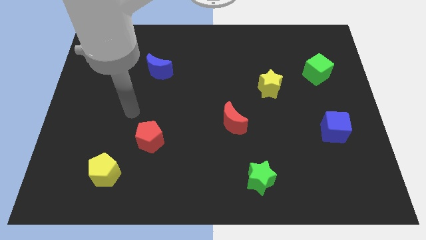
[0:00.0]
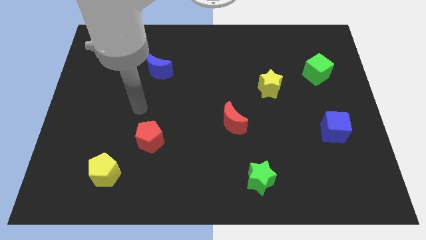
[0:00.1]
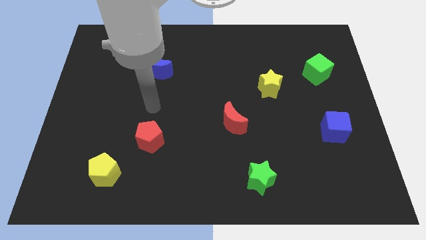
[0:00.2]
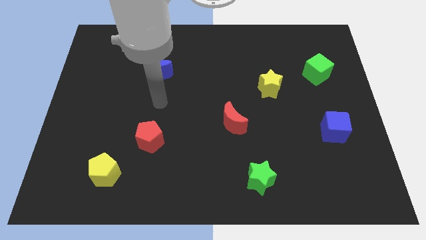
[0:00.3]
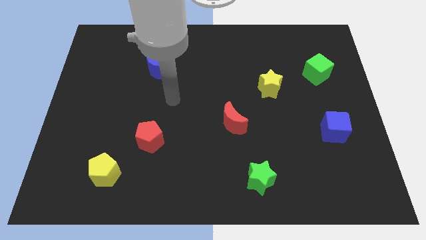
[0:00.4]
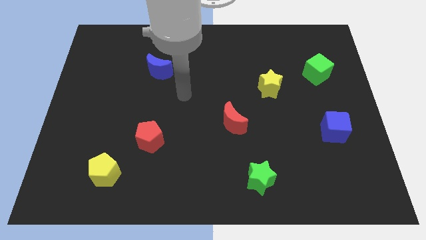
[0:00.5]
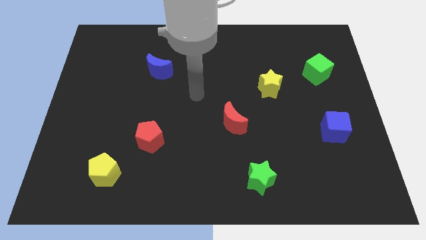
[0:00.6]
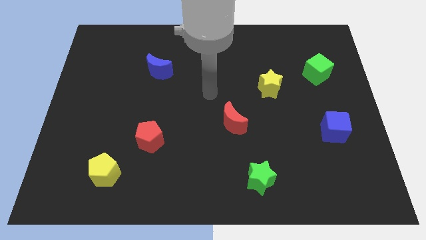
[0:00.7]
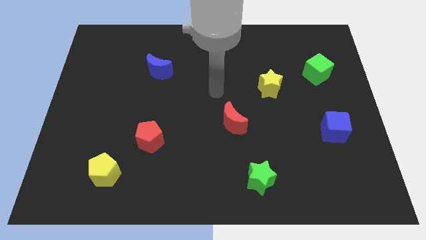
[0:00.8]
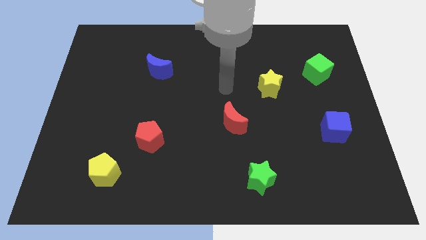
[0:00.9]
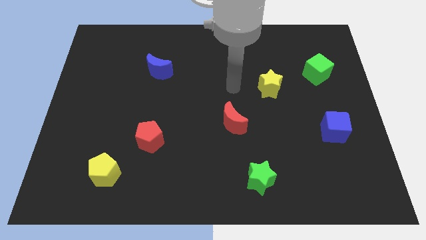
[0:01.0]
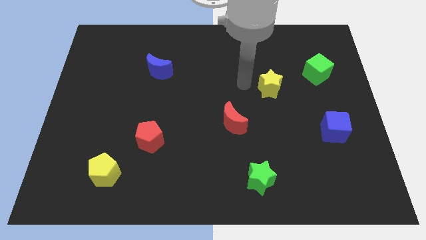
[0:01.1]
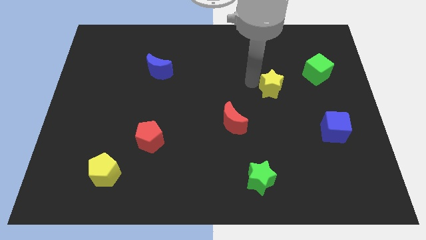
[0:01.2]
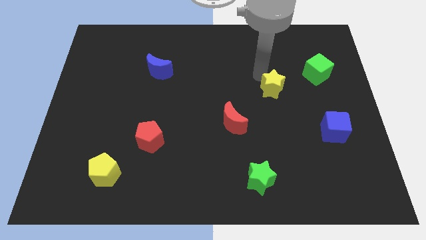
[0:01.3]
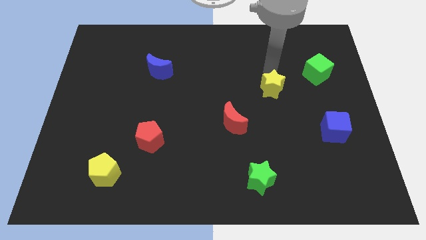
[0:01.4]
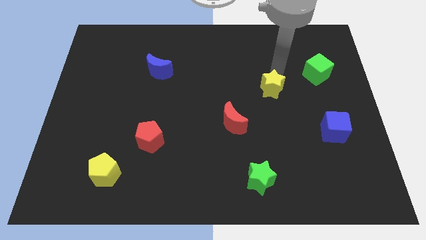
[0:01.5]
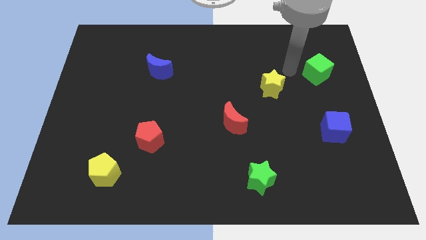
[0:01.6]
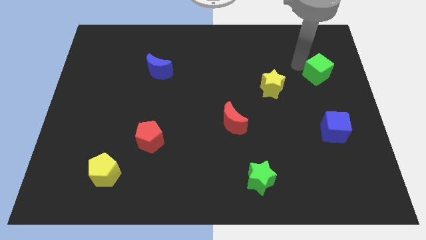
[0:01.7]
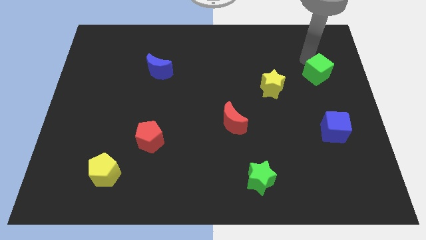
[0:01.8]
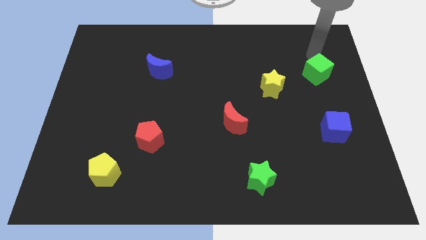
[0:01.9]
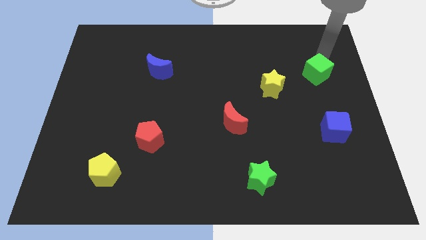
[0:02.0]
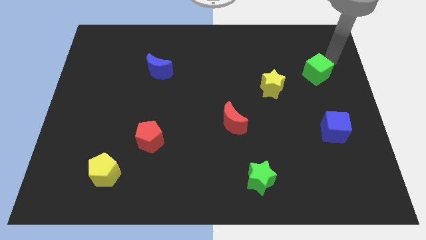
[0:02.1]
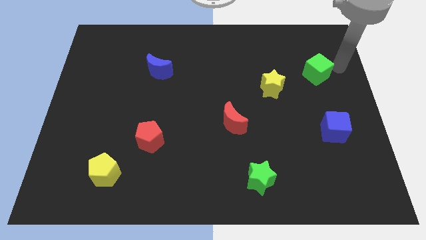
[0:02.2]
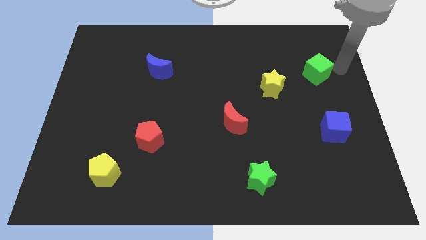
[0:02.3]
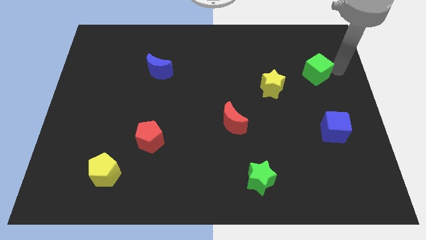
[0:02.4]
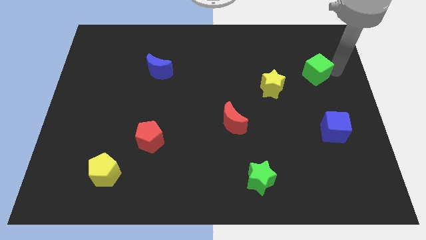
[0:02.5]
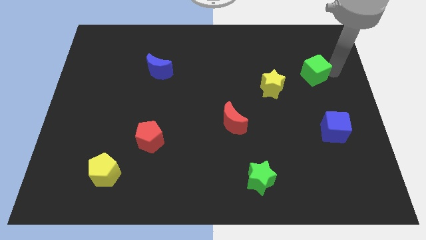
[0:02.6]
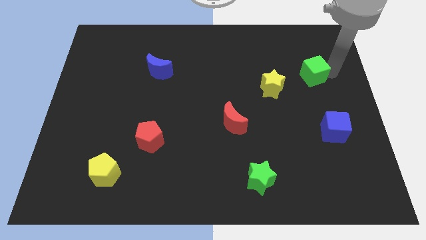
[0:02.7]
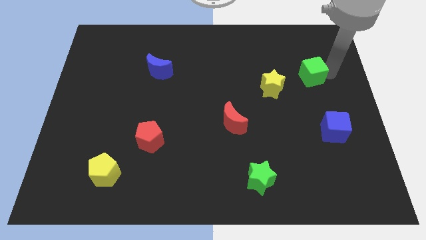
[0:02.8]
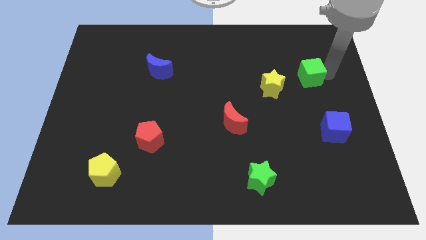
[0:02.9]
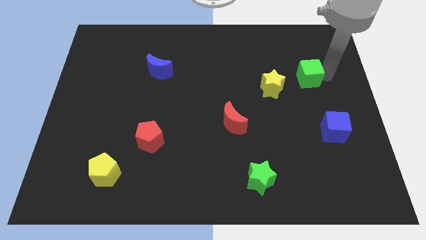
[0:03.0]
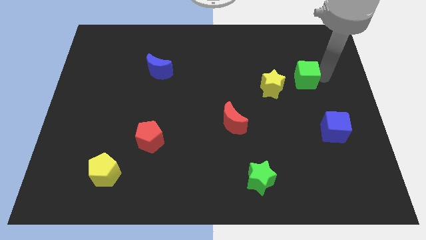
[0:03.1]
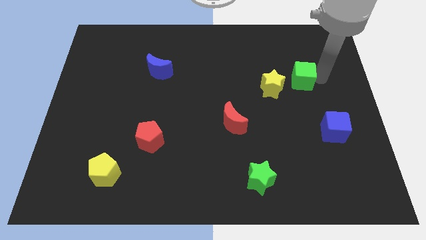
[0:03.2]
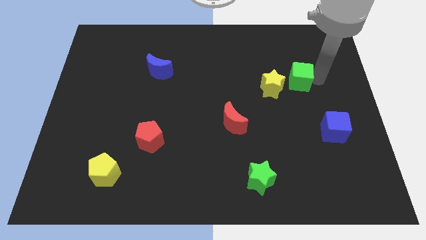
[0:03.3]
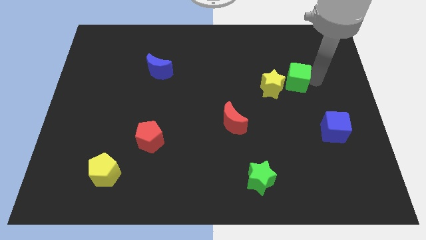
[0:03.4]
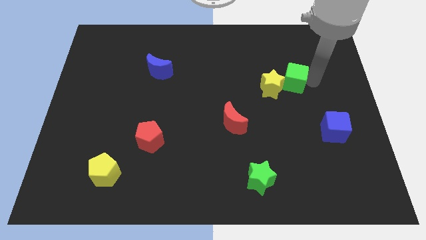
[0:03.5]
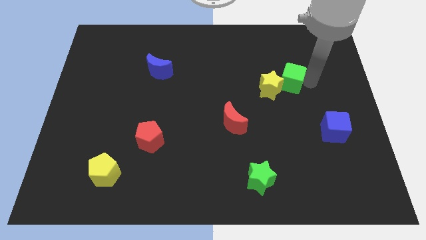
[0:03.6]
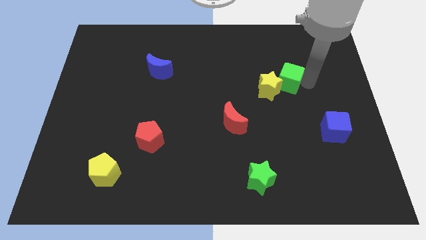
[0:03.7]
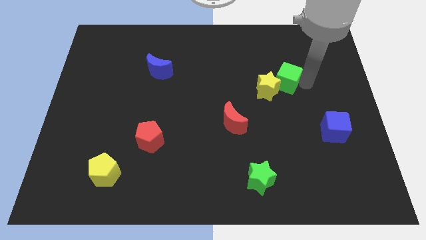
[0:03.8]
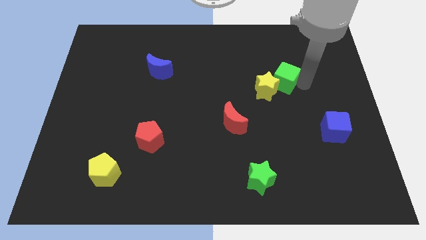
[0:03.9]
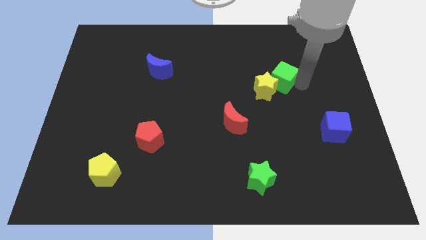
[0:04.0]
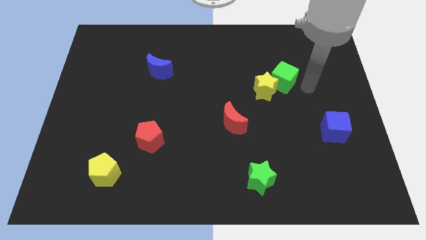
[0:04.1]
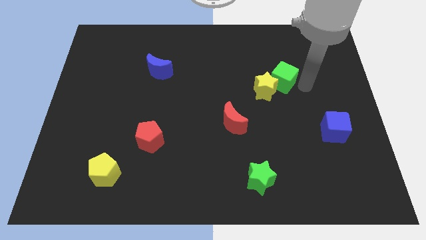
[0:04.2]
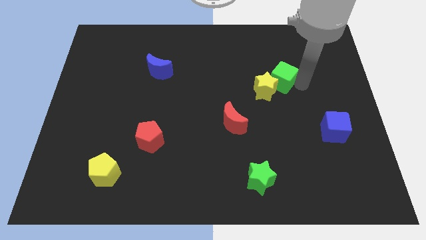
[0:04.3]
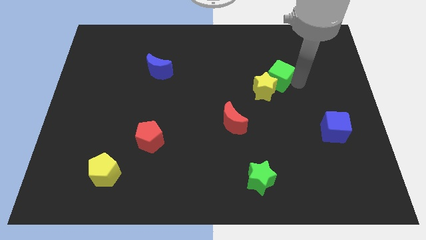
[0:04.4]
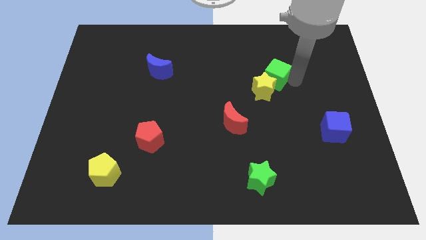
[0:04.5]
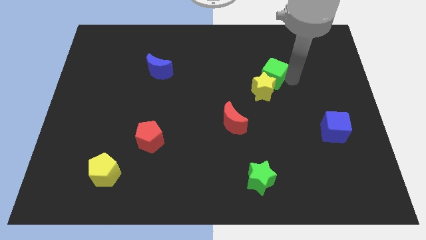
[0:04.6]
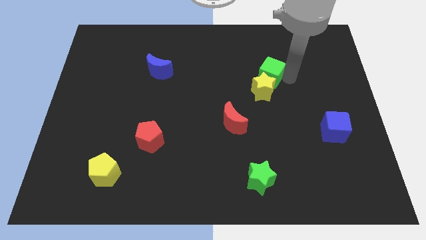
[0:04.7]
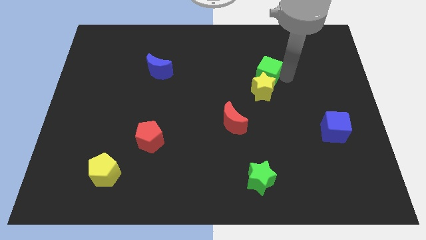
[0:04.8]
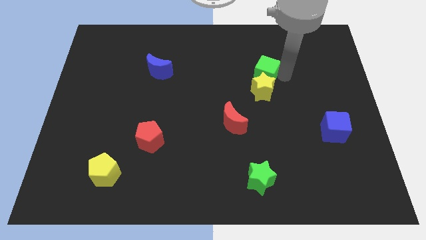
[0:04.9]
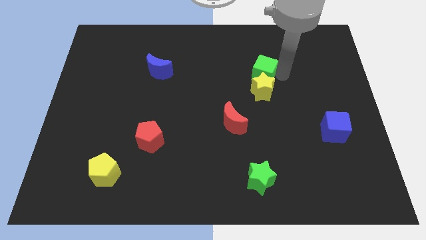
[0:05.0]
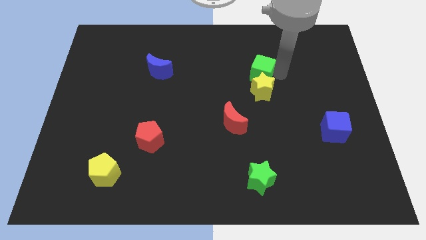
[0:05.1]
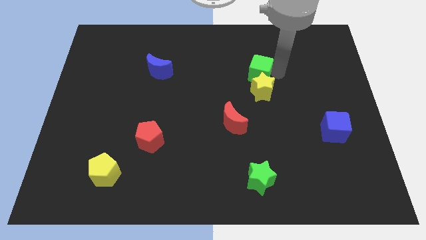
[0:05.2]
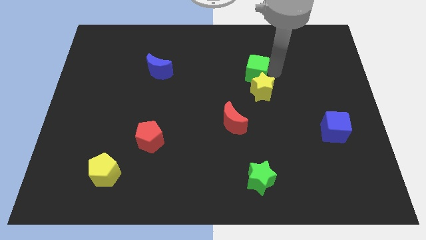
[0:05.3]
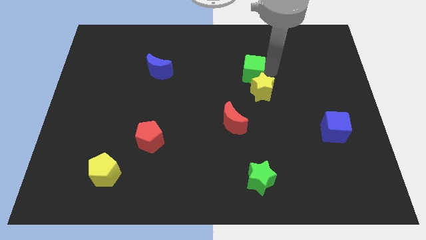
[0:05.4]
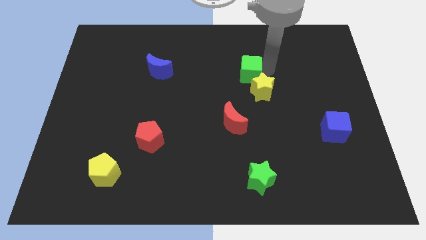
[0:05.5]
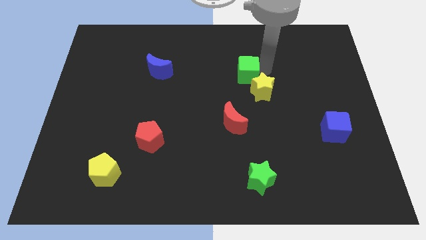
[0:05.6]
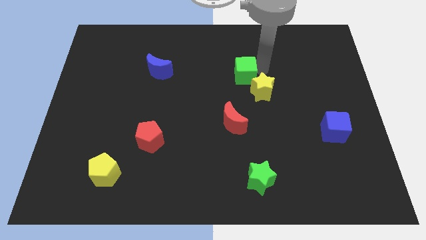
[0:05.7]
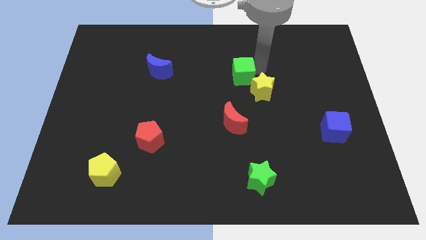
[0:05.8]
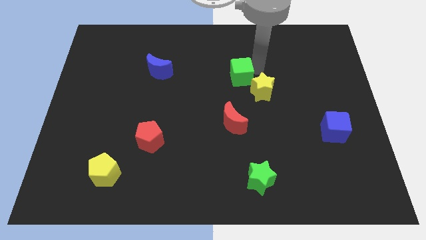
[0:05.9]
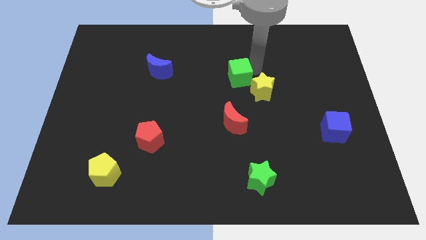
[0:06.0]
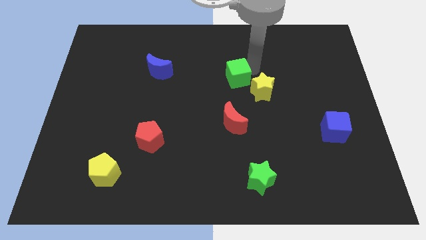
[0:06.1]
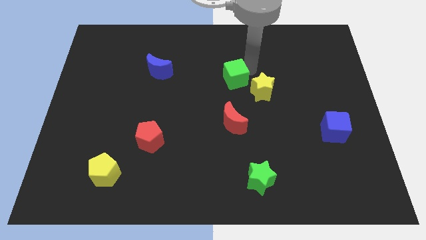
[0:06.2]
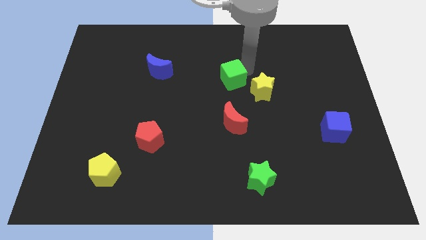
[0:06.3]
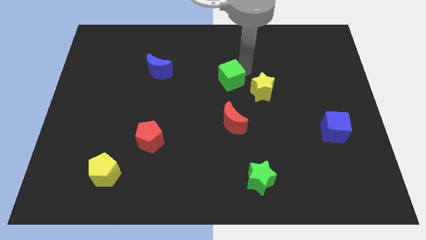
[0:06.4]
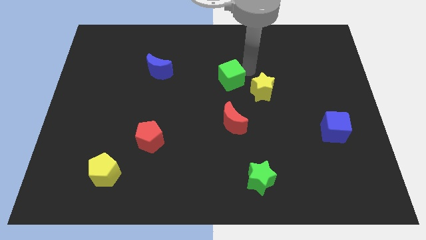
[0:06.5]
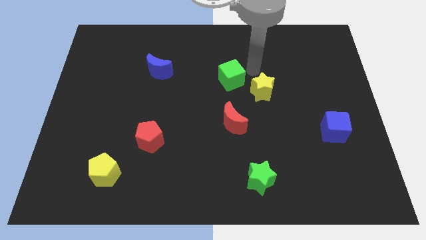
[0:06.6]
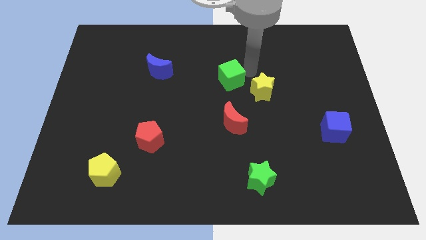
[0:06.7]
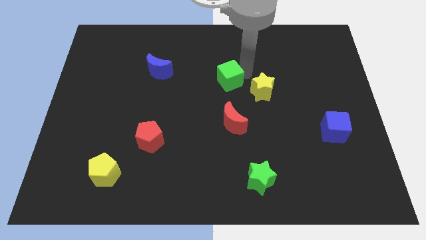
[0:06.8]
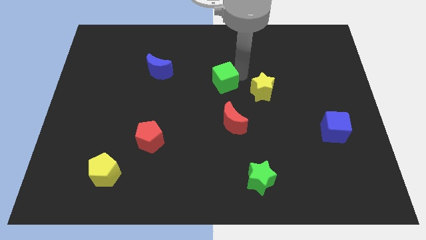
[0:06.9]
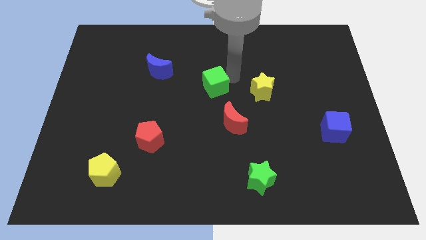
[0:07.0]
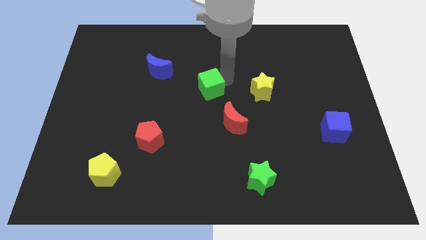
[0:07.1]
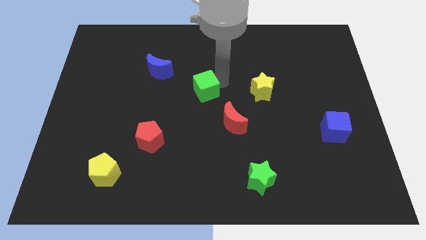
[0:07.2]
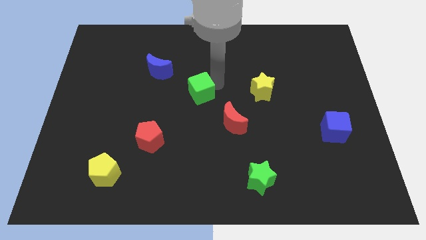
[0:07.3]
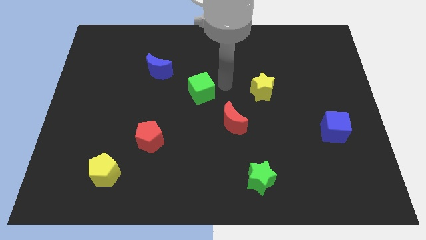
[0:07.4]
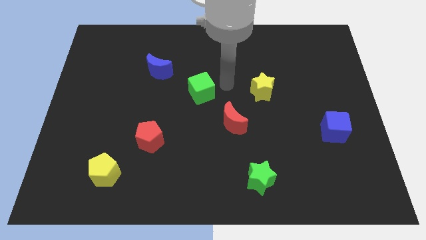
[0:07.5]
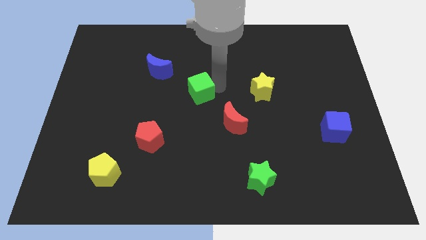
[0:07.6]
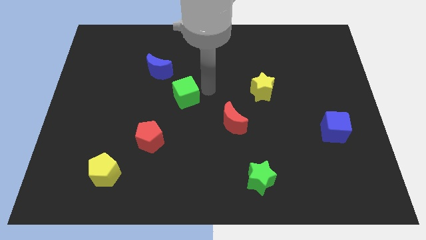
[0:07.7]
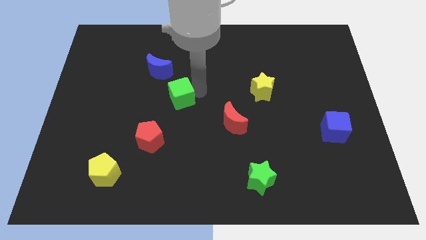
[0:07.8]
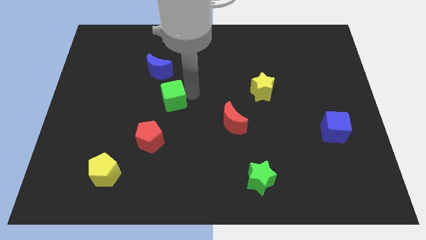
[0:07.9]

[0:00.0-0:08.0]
put the green cube above the red pentagon

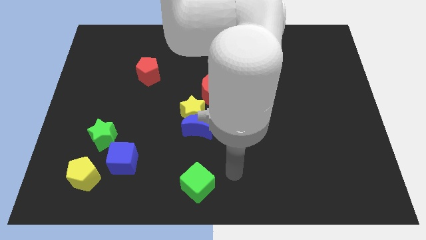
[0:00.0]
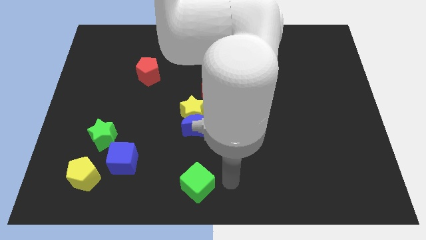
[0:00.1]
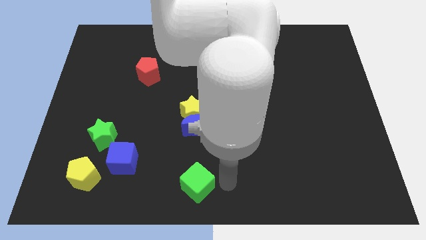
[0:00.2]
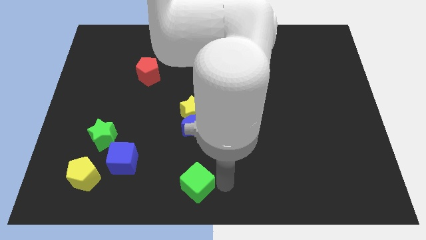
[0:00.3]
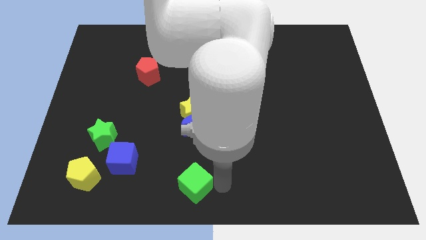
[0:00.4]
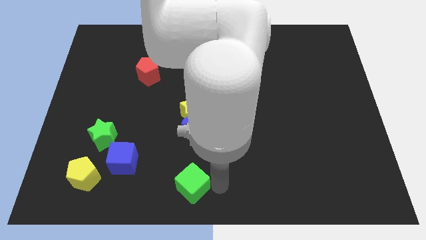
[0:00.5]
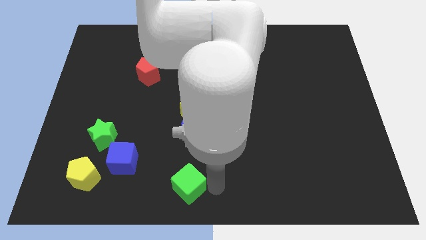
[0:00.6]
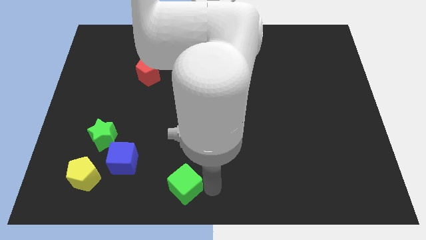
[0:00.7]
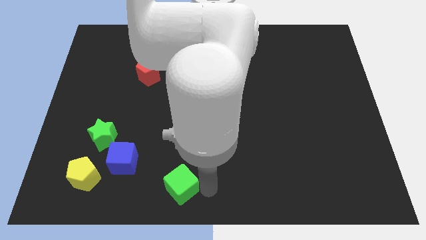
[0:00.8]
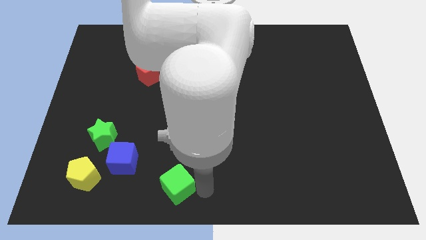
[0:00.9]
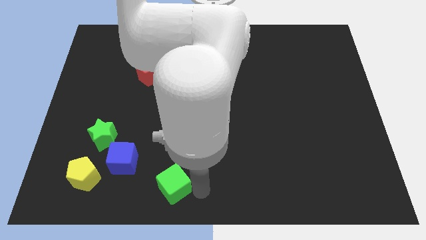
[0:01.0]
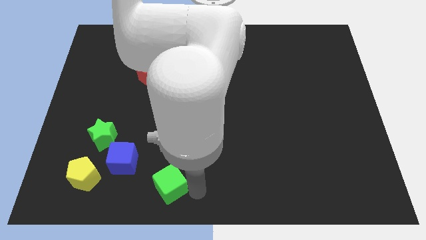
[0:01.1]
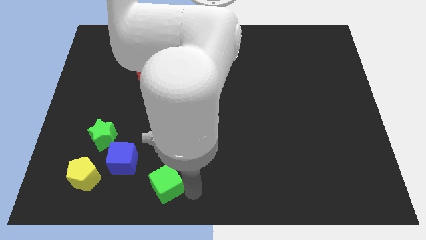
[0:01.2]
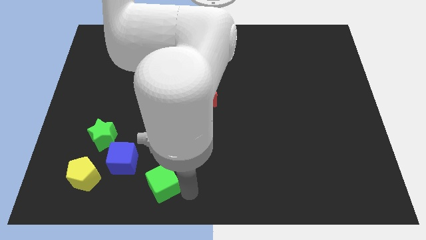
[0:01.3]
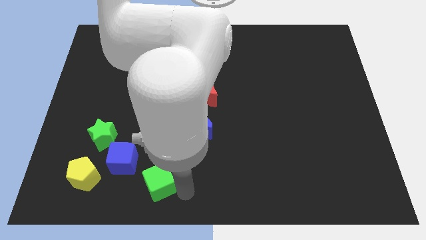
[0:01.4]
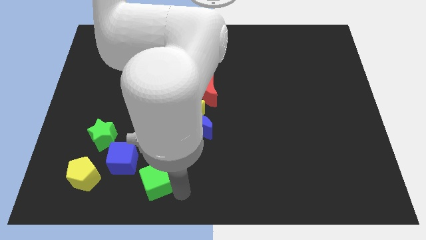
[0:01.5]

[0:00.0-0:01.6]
move the green cube to the right of the blue cube
